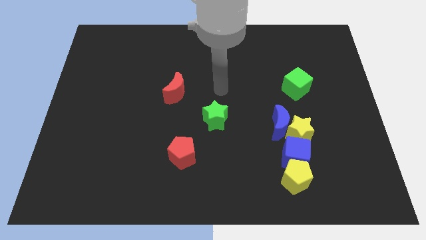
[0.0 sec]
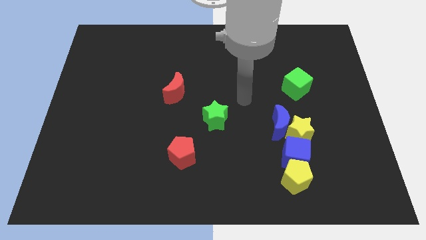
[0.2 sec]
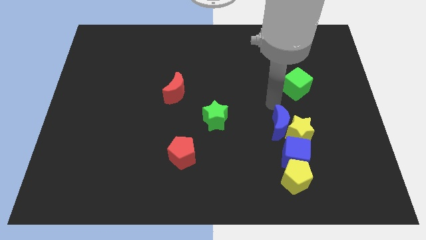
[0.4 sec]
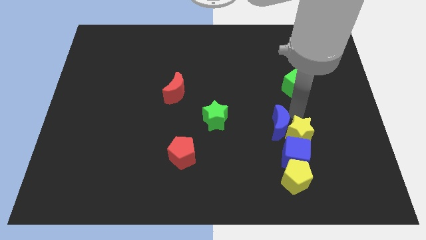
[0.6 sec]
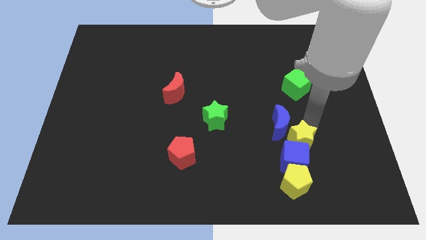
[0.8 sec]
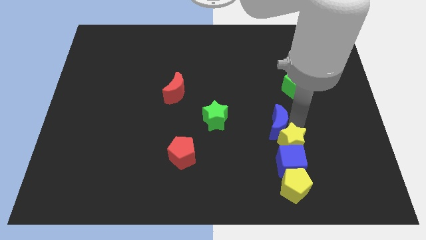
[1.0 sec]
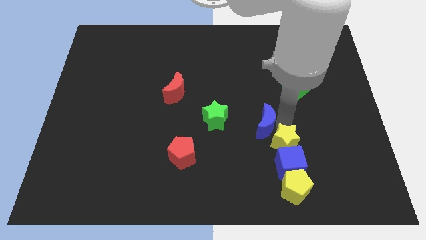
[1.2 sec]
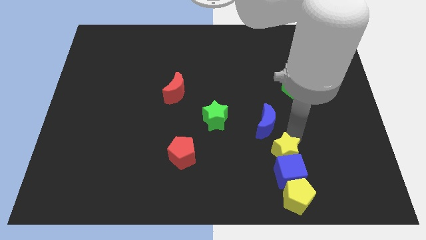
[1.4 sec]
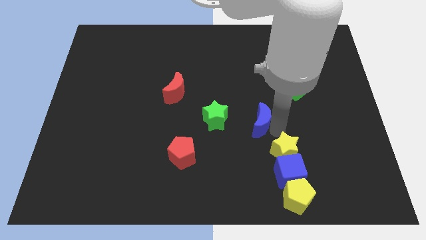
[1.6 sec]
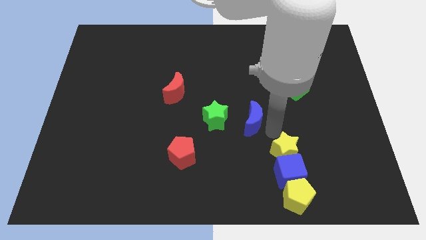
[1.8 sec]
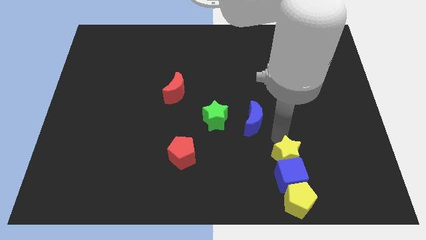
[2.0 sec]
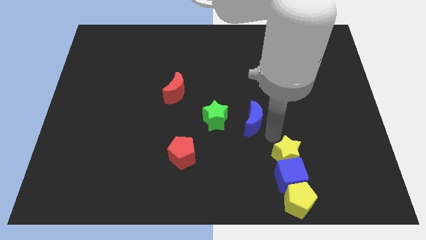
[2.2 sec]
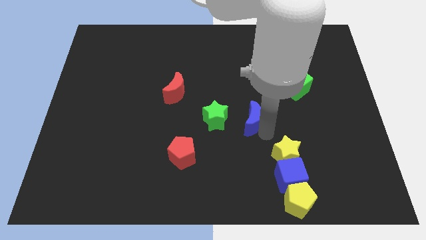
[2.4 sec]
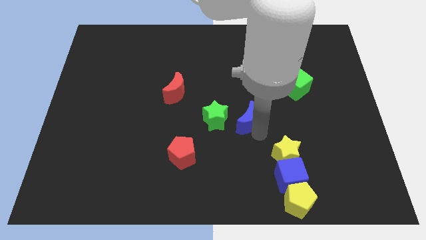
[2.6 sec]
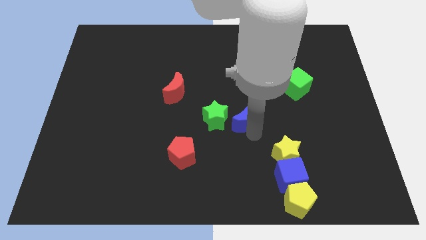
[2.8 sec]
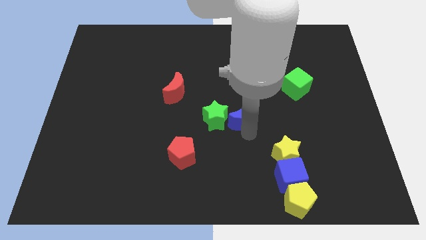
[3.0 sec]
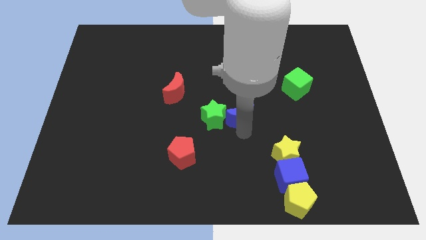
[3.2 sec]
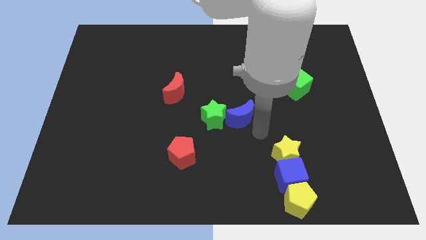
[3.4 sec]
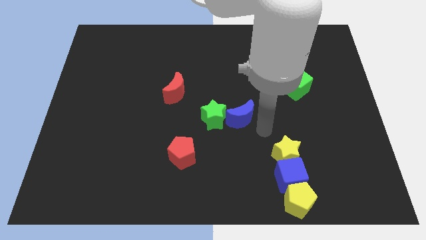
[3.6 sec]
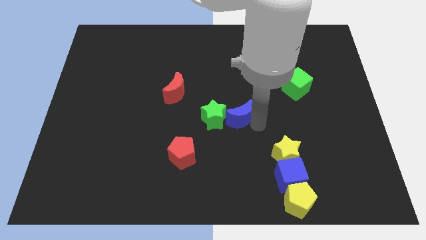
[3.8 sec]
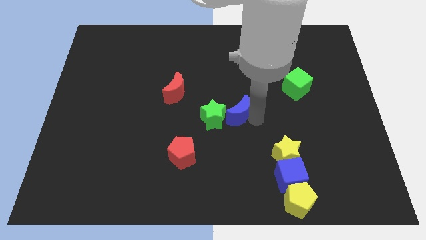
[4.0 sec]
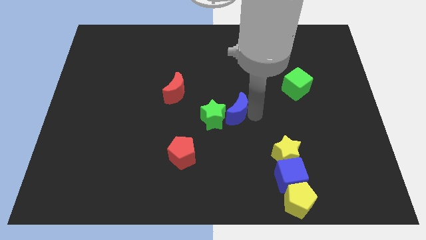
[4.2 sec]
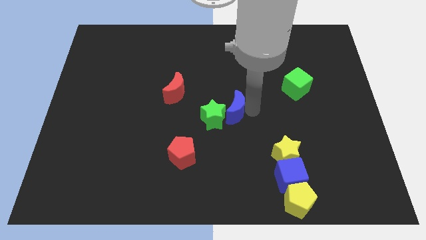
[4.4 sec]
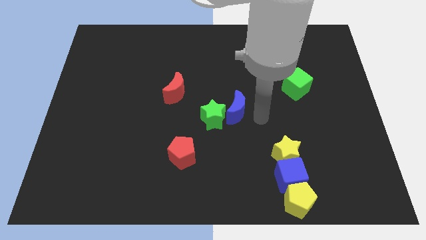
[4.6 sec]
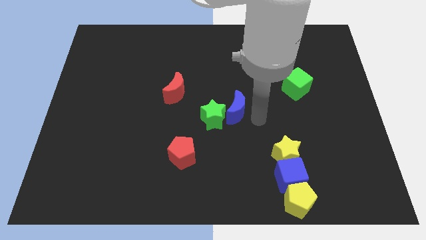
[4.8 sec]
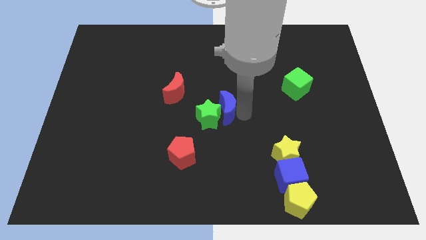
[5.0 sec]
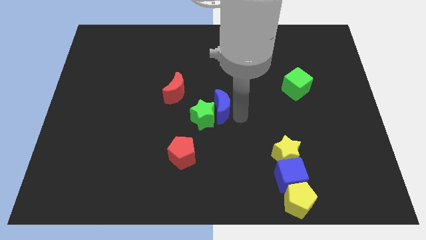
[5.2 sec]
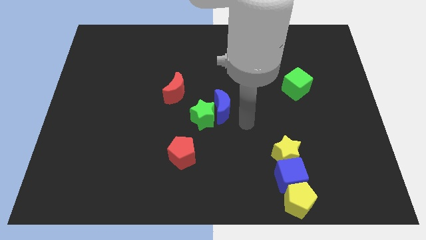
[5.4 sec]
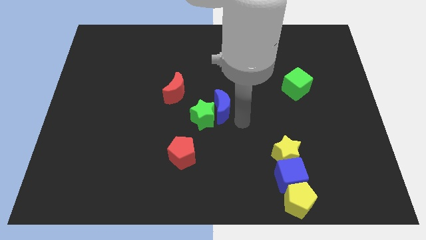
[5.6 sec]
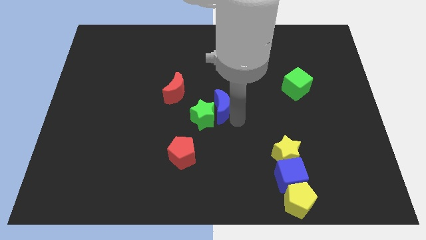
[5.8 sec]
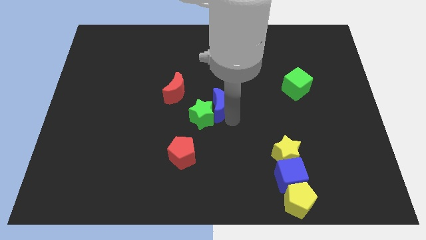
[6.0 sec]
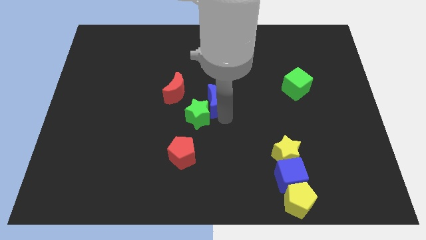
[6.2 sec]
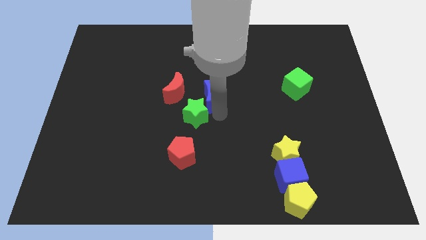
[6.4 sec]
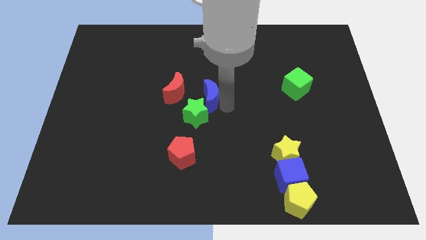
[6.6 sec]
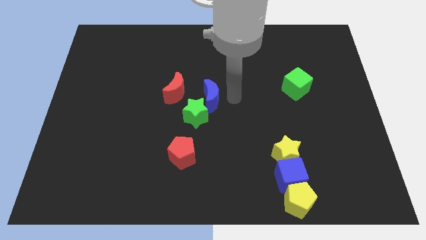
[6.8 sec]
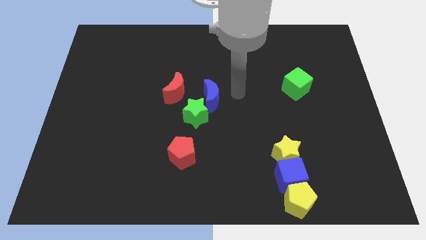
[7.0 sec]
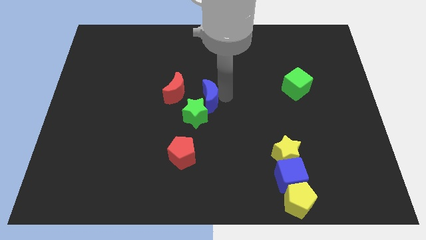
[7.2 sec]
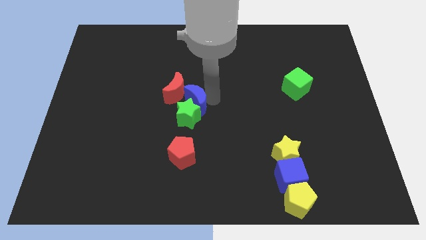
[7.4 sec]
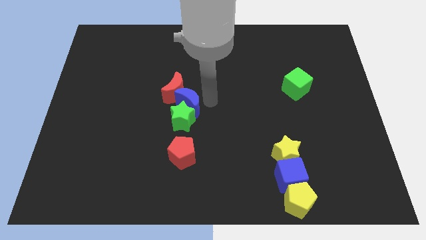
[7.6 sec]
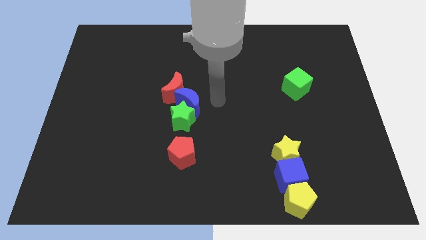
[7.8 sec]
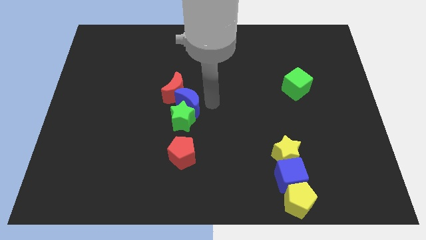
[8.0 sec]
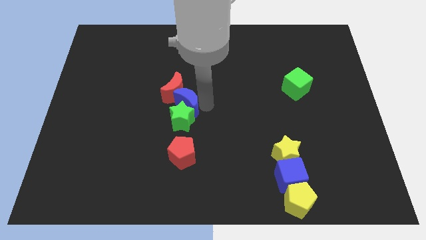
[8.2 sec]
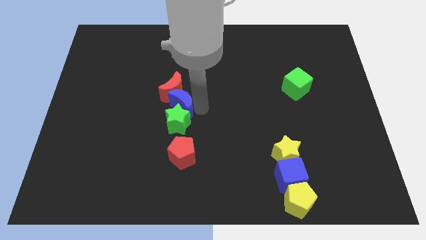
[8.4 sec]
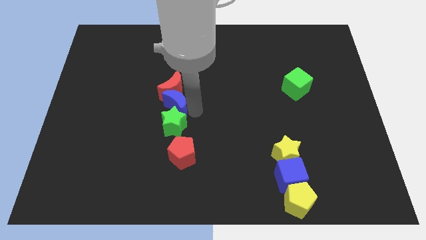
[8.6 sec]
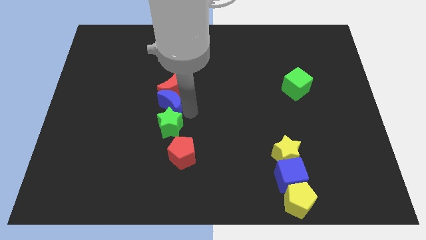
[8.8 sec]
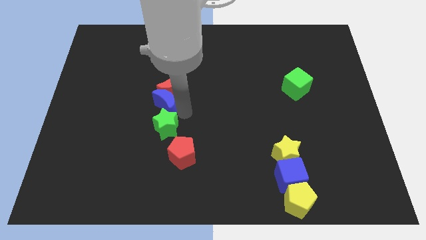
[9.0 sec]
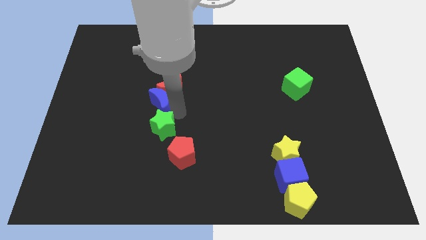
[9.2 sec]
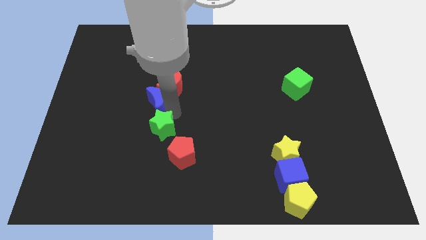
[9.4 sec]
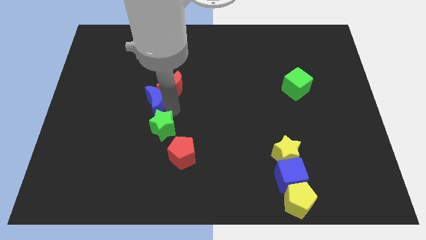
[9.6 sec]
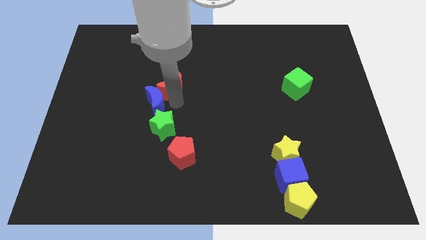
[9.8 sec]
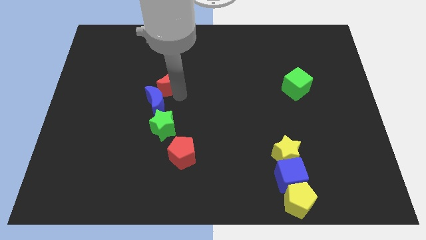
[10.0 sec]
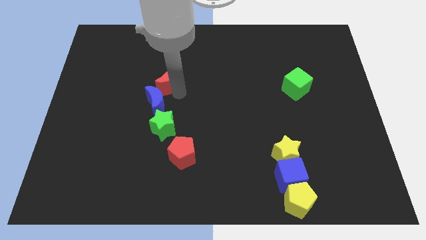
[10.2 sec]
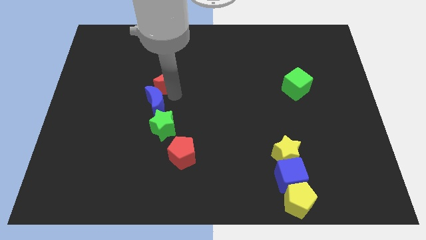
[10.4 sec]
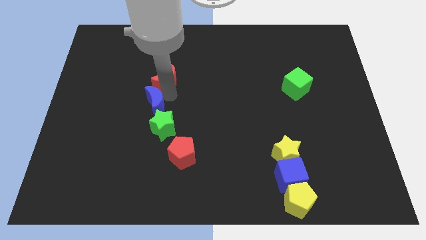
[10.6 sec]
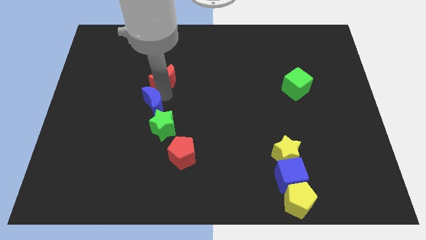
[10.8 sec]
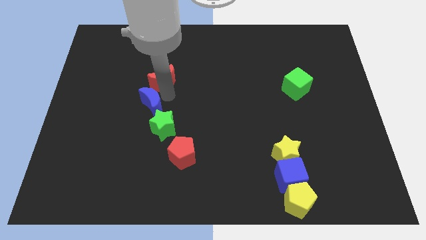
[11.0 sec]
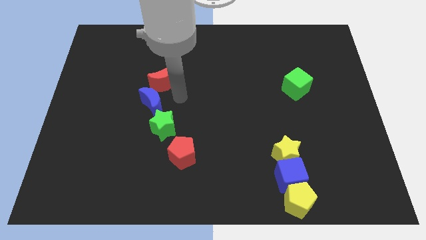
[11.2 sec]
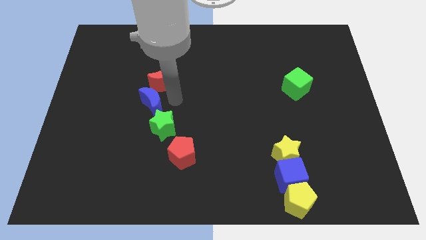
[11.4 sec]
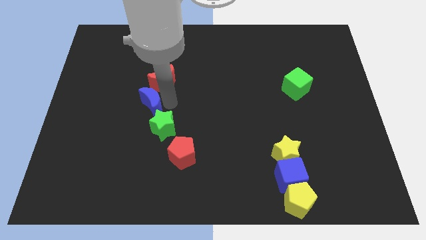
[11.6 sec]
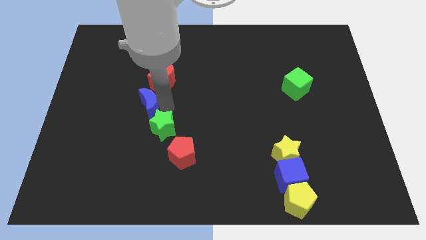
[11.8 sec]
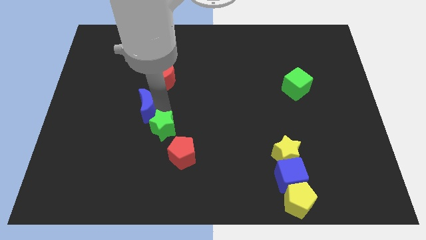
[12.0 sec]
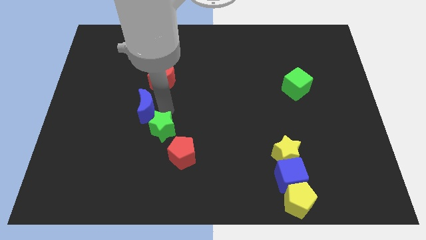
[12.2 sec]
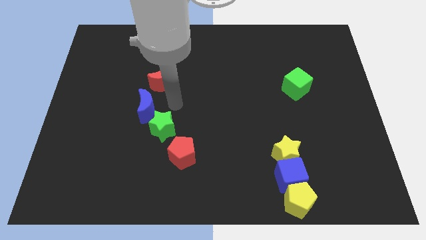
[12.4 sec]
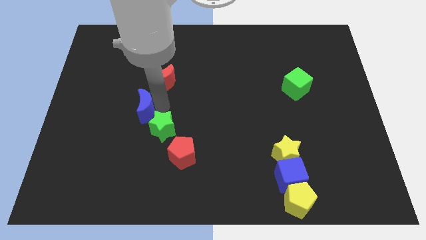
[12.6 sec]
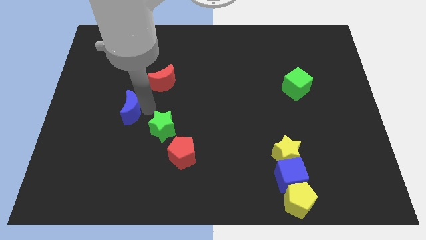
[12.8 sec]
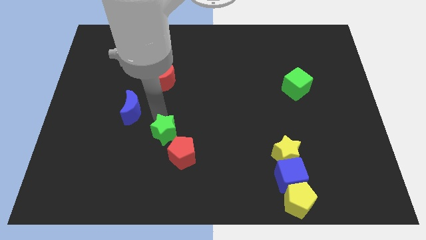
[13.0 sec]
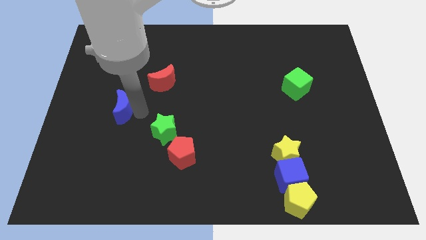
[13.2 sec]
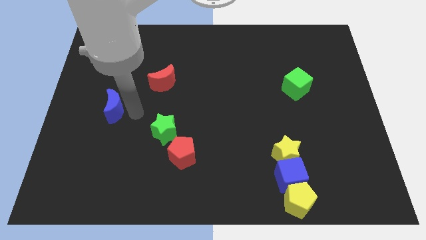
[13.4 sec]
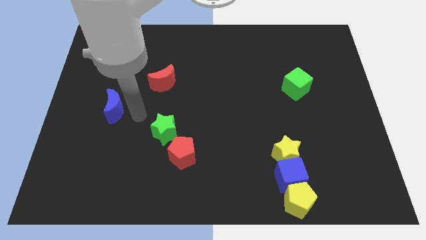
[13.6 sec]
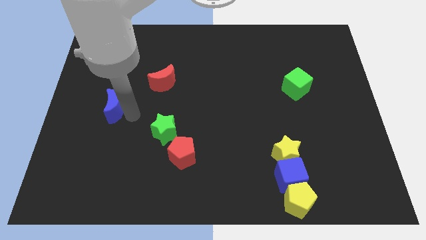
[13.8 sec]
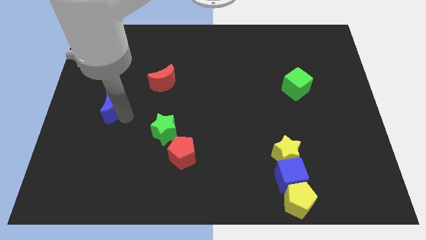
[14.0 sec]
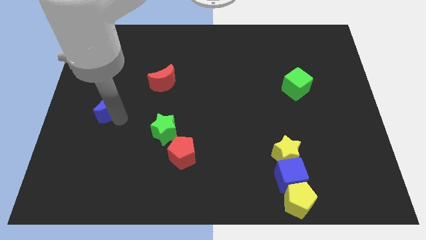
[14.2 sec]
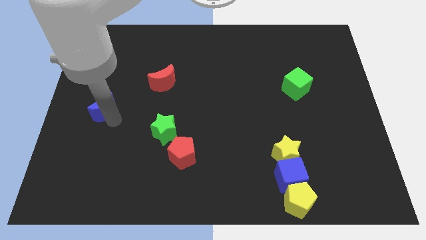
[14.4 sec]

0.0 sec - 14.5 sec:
push the blue moon to the left side of the board
